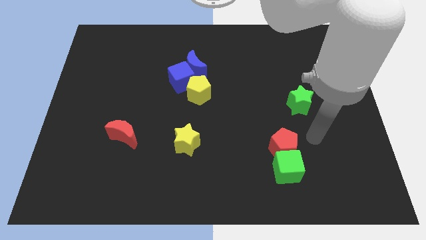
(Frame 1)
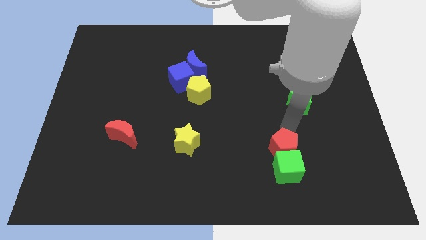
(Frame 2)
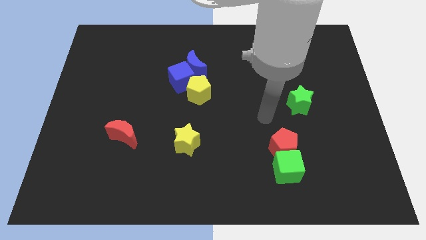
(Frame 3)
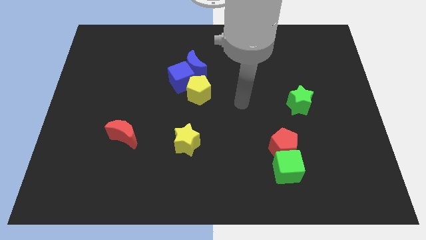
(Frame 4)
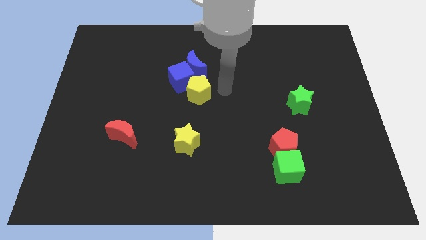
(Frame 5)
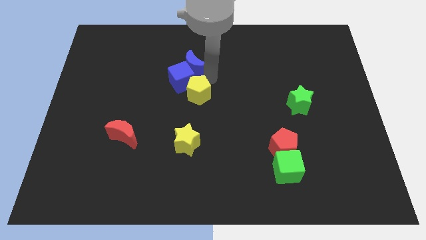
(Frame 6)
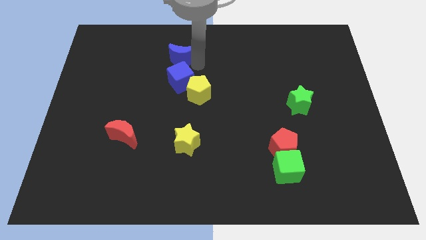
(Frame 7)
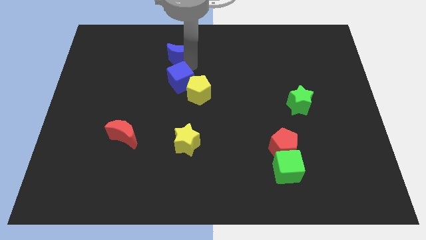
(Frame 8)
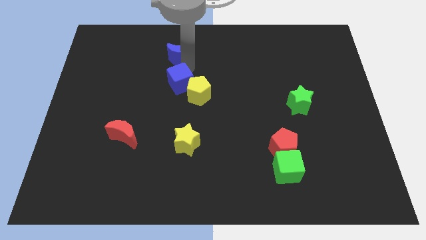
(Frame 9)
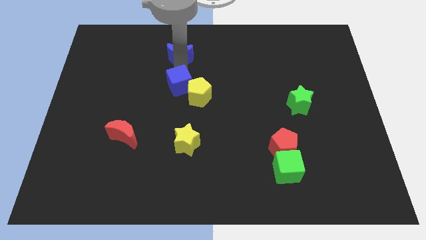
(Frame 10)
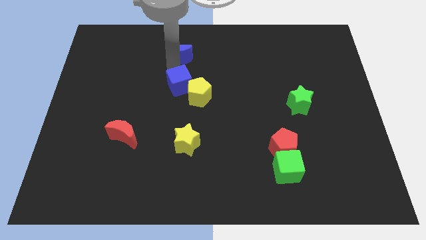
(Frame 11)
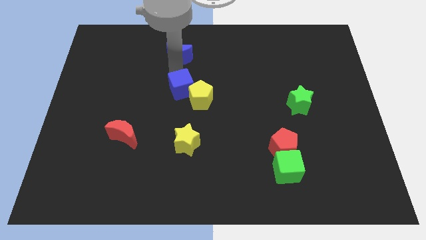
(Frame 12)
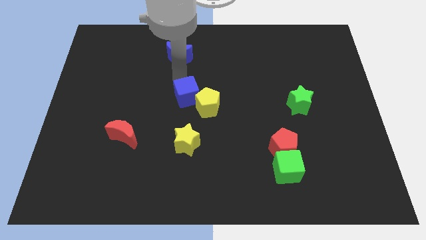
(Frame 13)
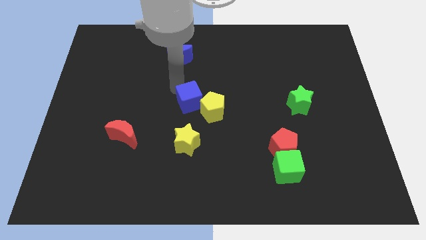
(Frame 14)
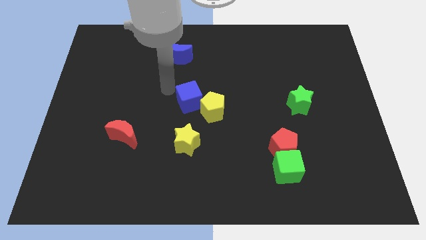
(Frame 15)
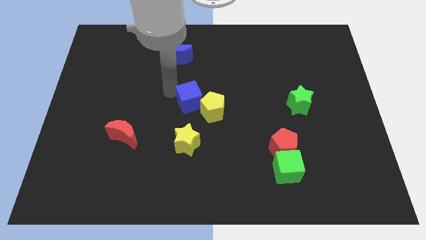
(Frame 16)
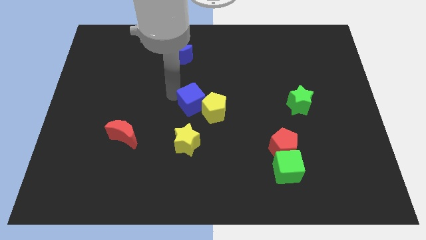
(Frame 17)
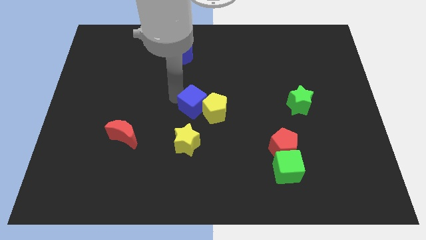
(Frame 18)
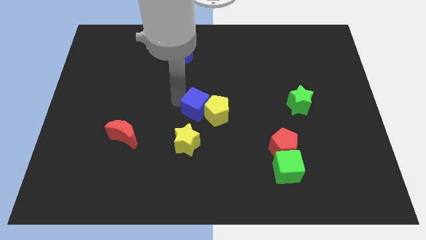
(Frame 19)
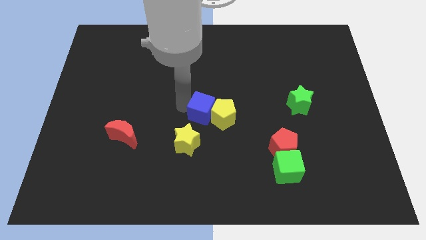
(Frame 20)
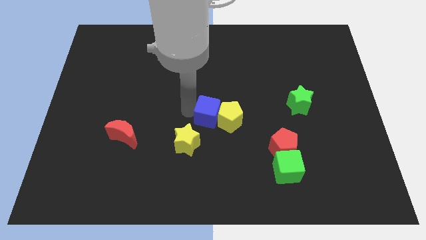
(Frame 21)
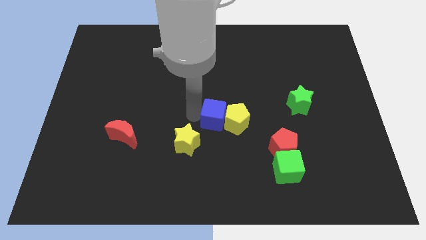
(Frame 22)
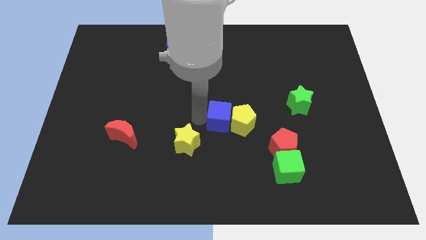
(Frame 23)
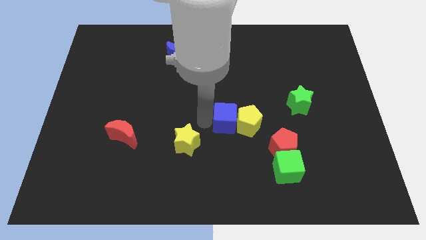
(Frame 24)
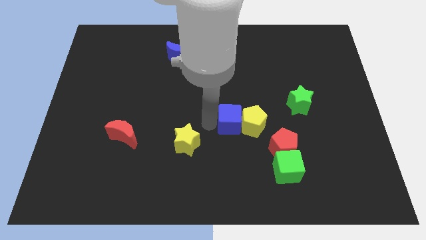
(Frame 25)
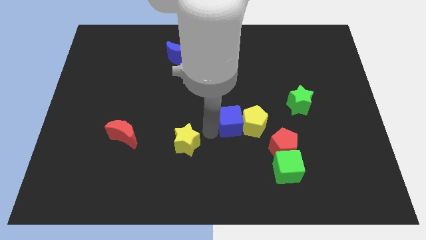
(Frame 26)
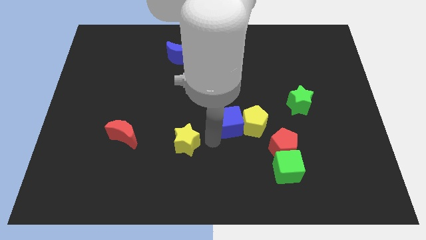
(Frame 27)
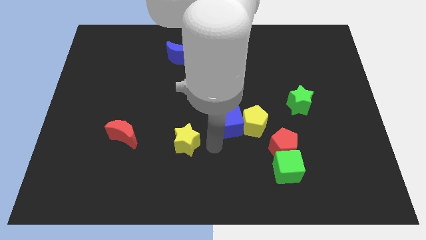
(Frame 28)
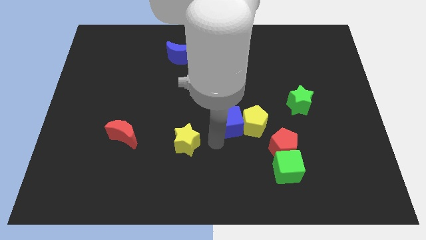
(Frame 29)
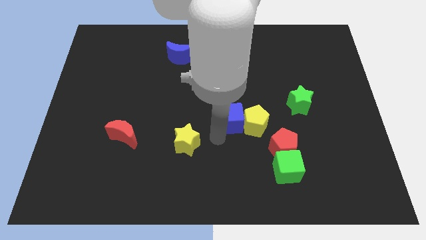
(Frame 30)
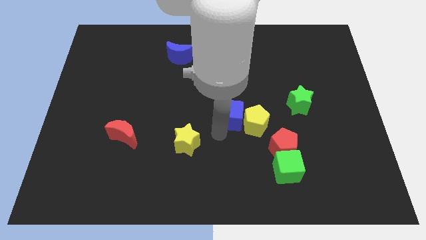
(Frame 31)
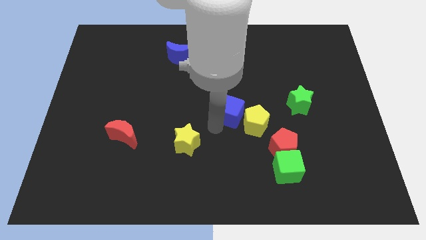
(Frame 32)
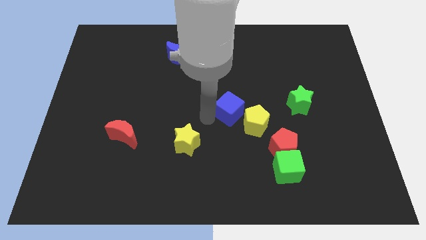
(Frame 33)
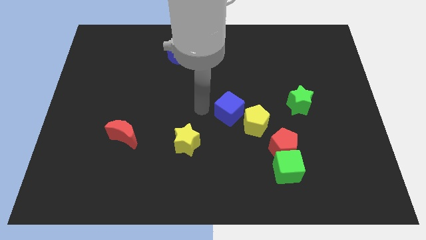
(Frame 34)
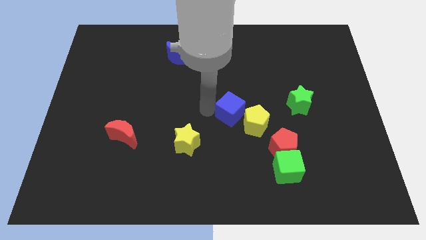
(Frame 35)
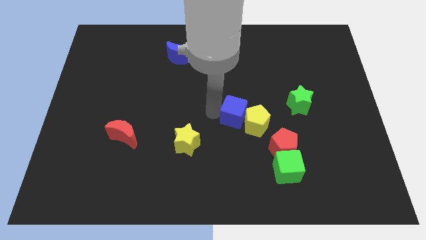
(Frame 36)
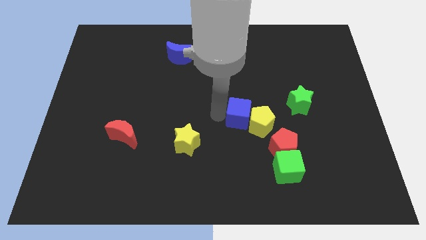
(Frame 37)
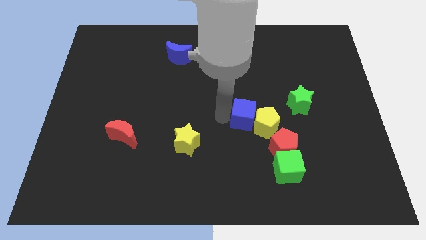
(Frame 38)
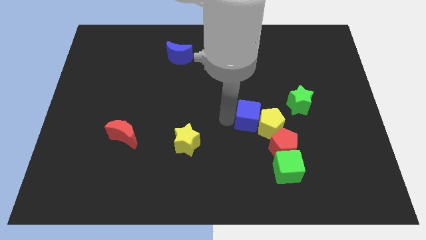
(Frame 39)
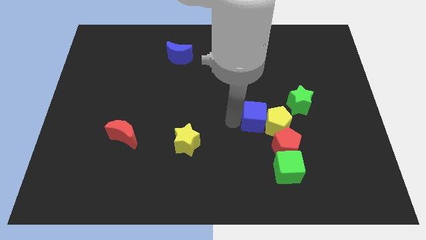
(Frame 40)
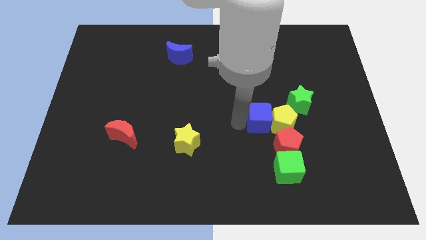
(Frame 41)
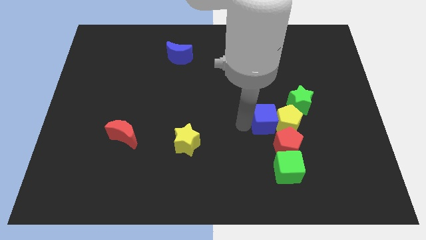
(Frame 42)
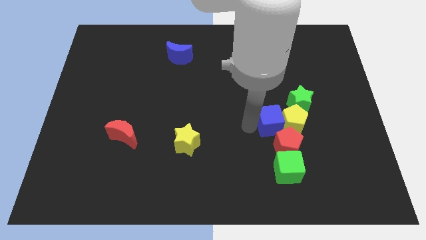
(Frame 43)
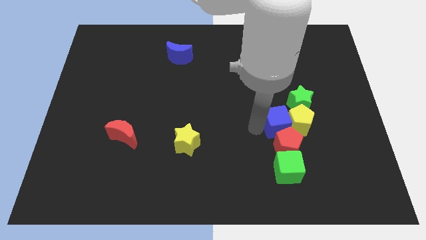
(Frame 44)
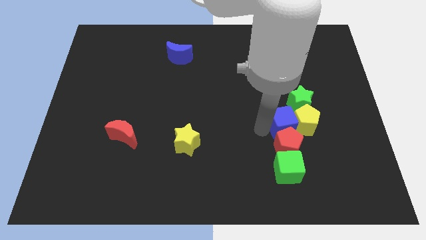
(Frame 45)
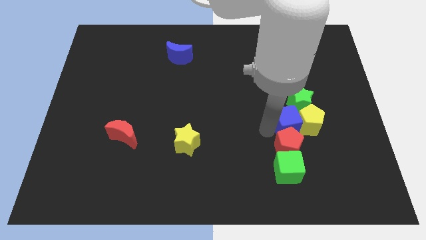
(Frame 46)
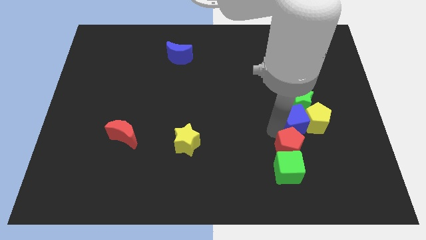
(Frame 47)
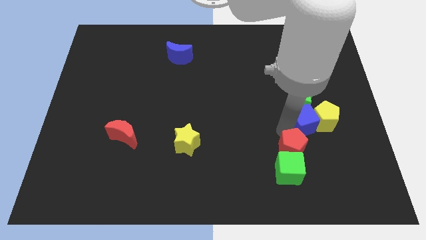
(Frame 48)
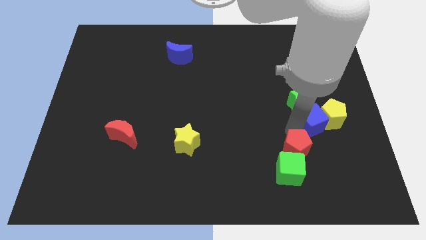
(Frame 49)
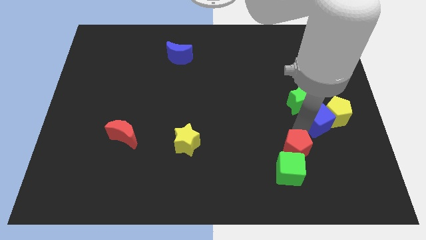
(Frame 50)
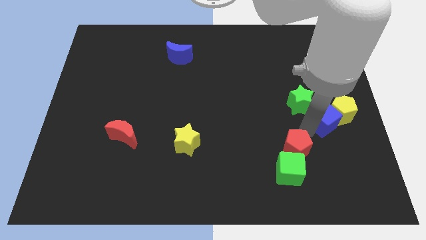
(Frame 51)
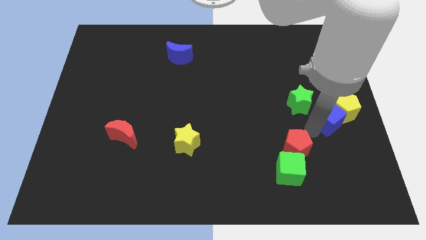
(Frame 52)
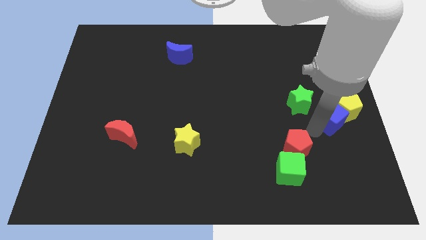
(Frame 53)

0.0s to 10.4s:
push the blue cube to the right side of the board
